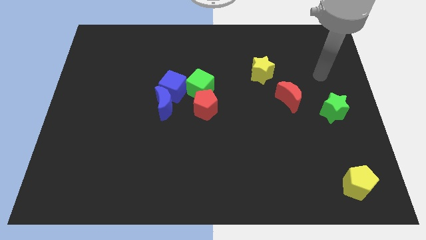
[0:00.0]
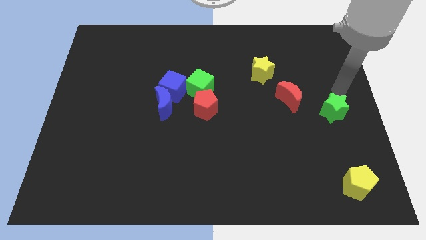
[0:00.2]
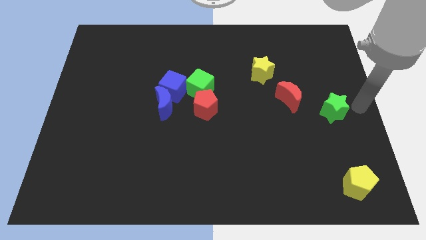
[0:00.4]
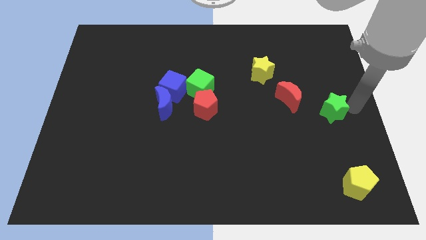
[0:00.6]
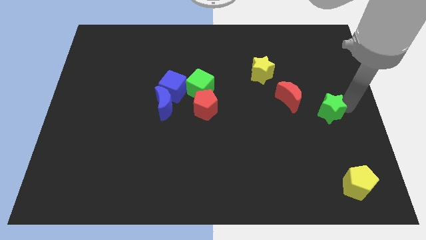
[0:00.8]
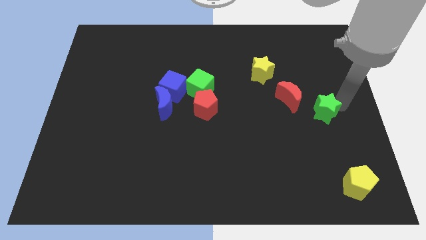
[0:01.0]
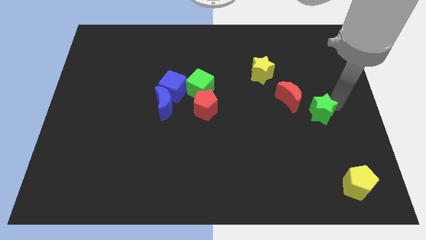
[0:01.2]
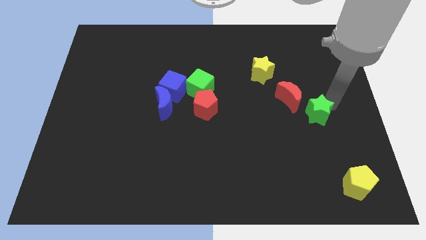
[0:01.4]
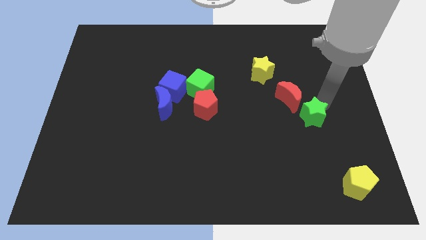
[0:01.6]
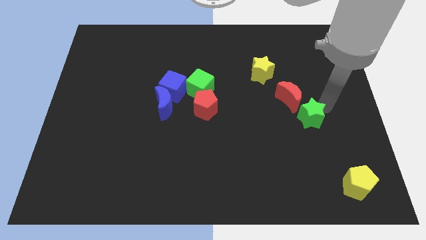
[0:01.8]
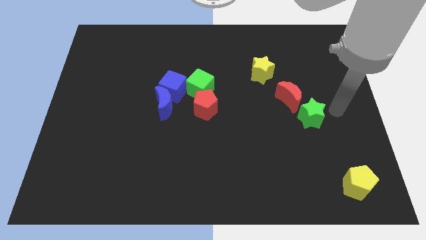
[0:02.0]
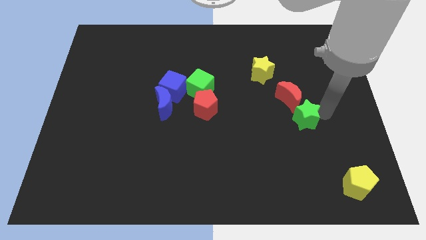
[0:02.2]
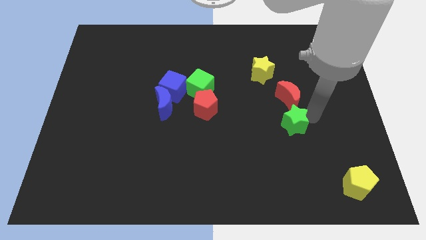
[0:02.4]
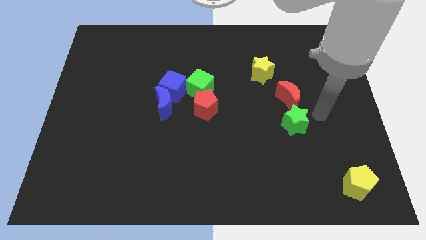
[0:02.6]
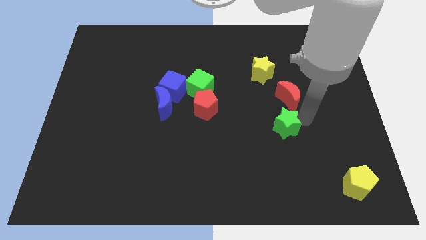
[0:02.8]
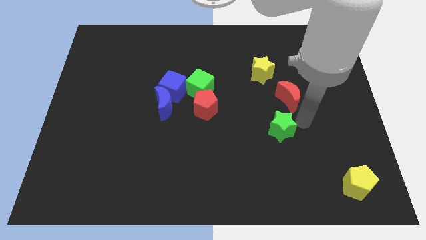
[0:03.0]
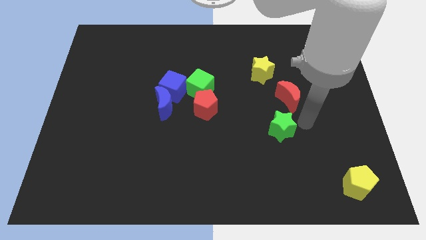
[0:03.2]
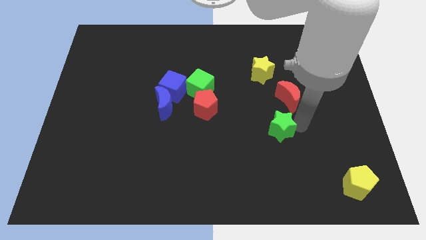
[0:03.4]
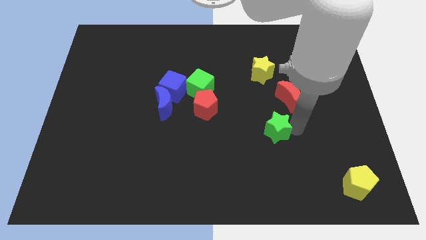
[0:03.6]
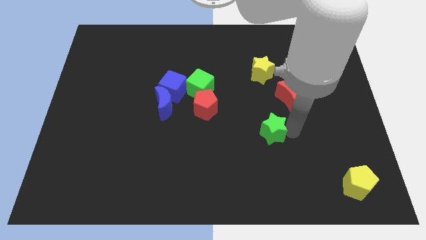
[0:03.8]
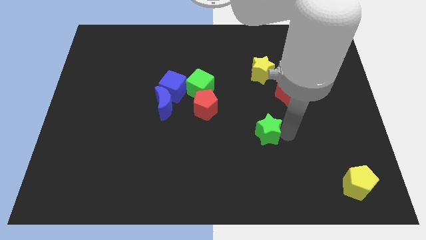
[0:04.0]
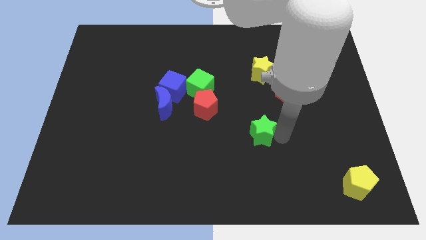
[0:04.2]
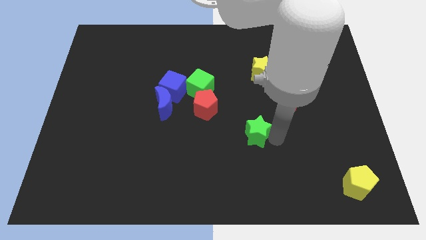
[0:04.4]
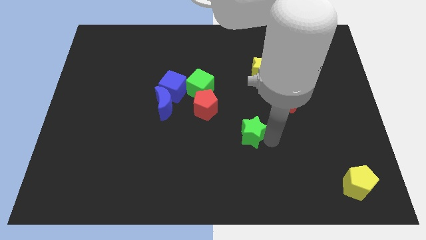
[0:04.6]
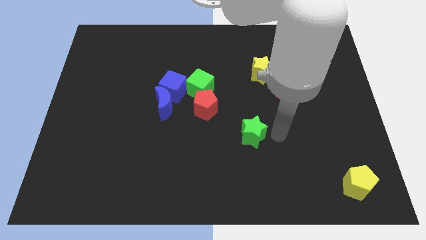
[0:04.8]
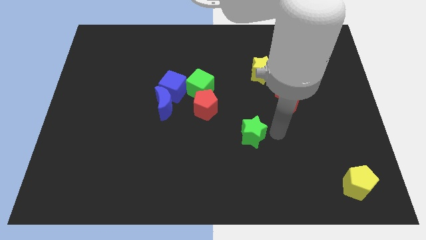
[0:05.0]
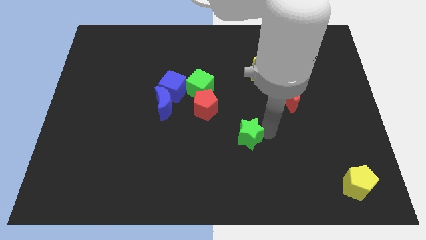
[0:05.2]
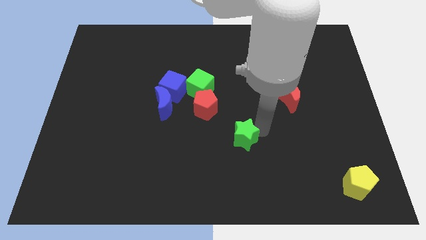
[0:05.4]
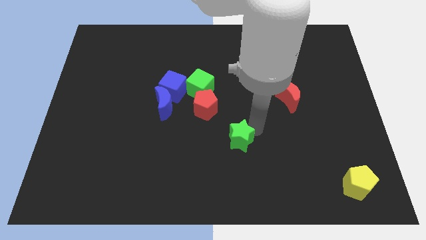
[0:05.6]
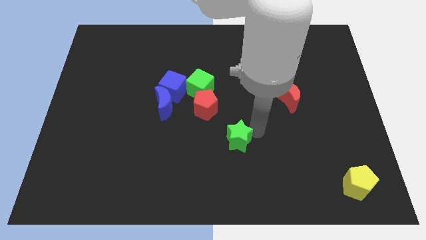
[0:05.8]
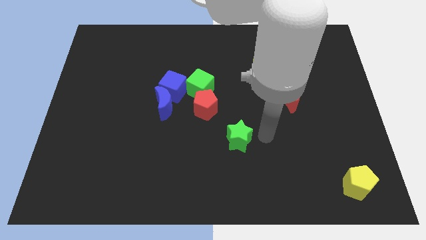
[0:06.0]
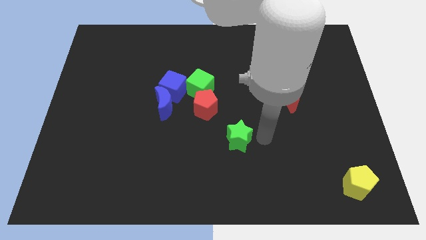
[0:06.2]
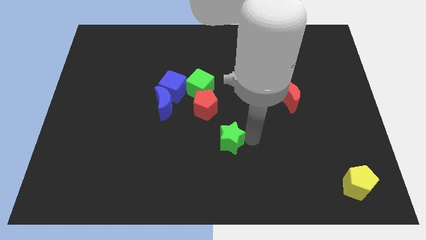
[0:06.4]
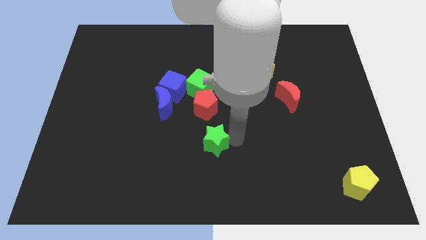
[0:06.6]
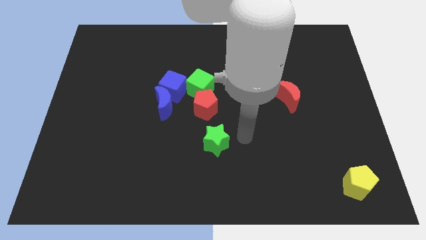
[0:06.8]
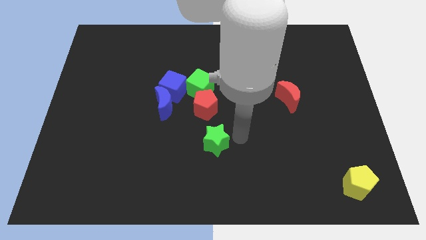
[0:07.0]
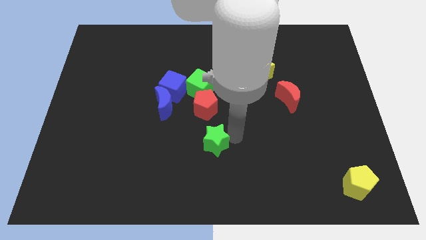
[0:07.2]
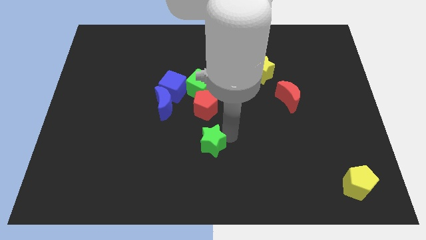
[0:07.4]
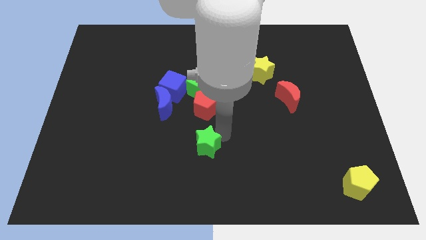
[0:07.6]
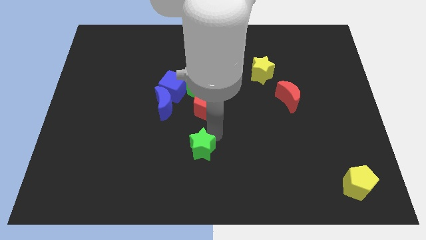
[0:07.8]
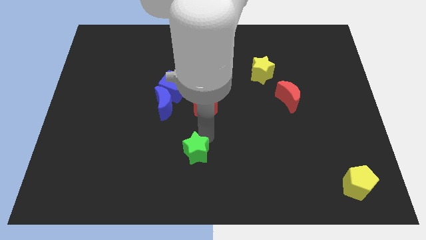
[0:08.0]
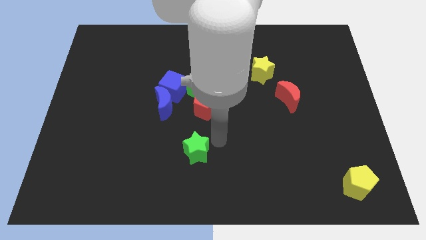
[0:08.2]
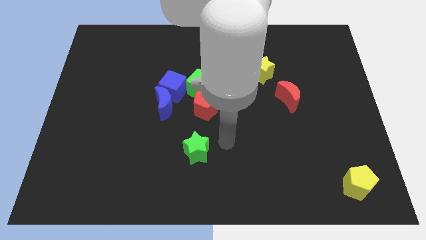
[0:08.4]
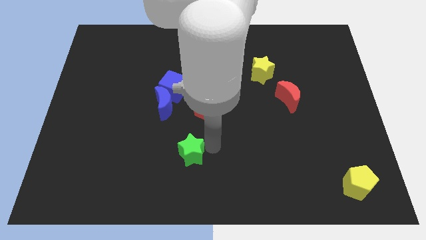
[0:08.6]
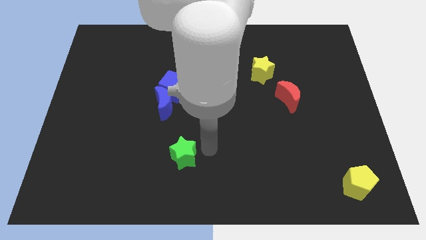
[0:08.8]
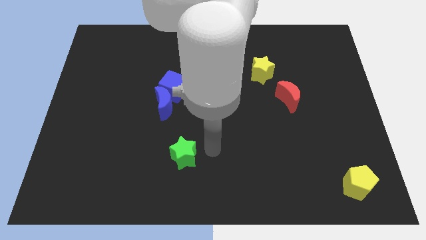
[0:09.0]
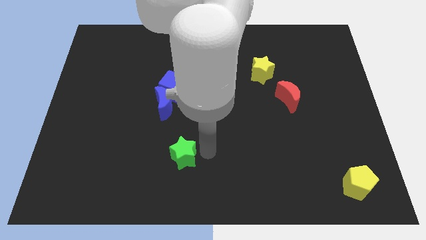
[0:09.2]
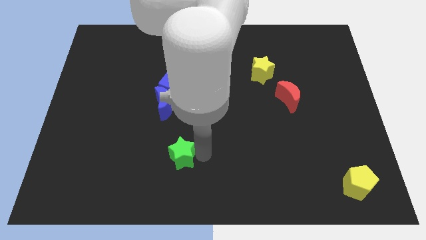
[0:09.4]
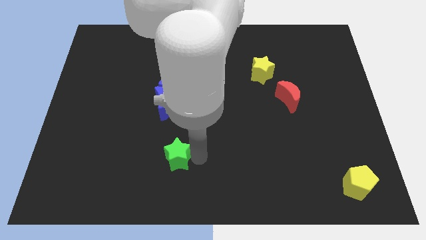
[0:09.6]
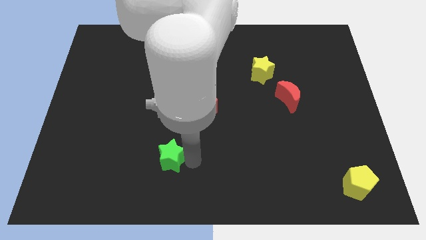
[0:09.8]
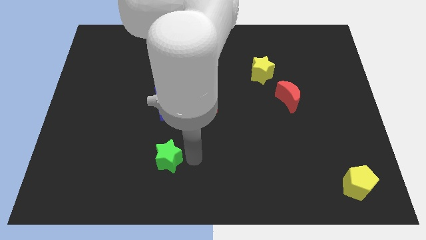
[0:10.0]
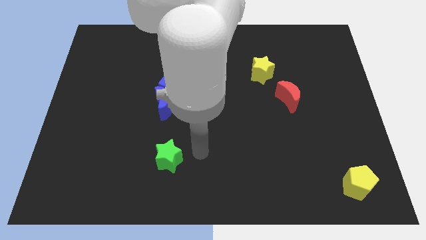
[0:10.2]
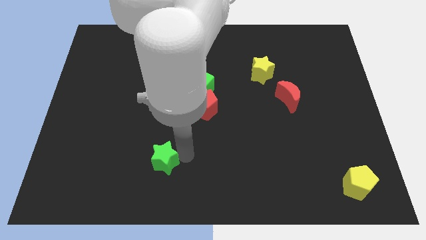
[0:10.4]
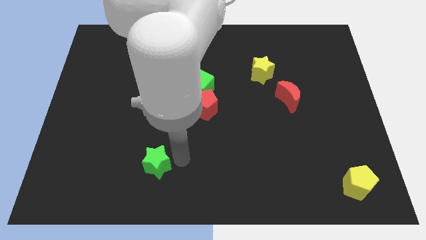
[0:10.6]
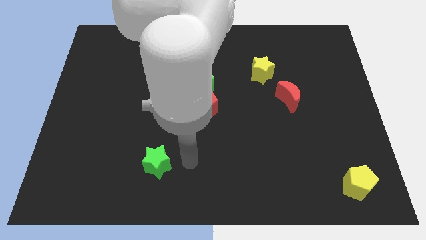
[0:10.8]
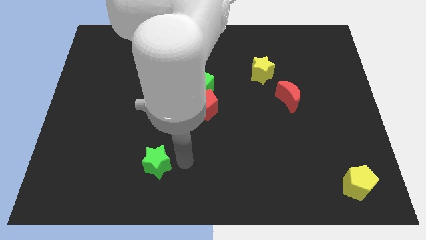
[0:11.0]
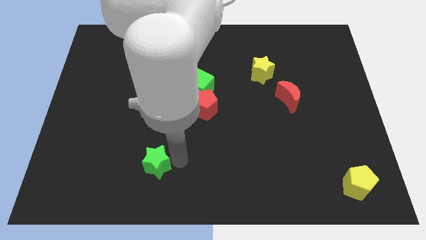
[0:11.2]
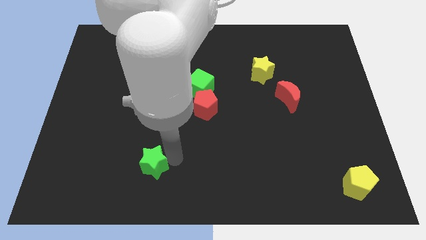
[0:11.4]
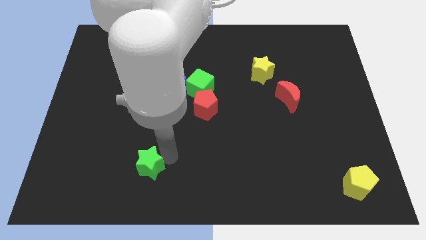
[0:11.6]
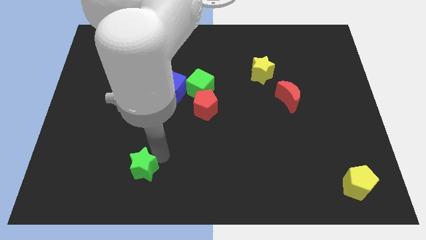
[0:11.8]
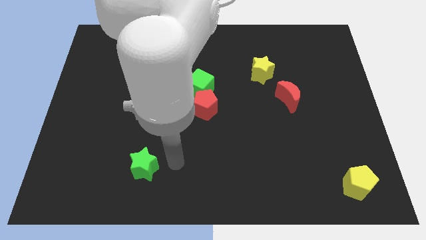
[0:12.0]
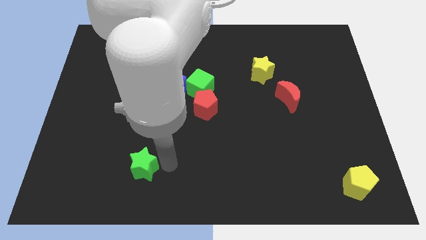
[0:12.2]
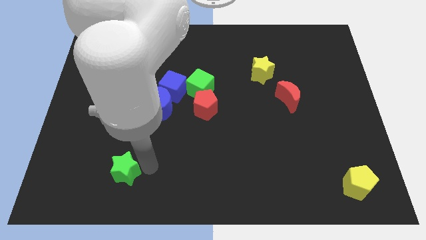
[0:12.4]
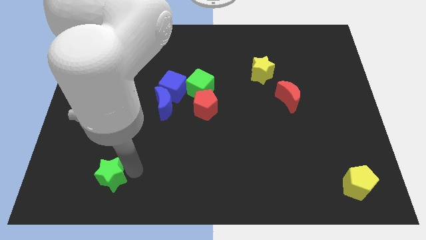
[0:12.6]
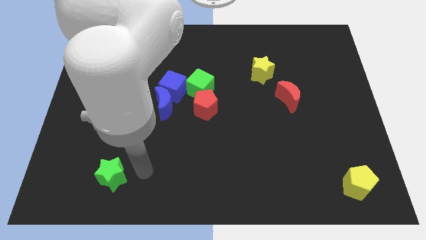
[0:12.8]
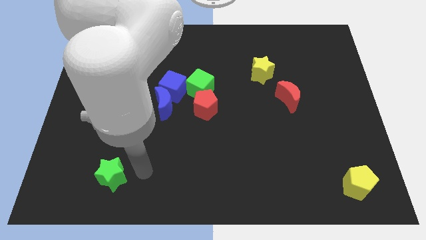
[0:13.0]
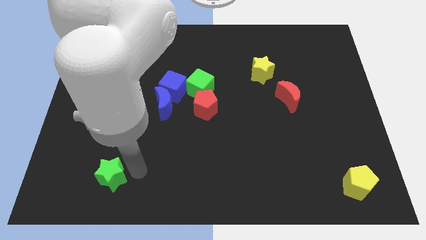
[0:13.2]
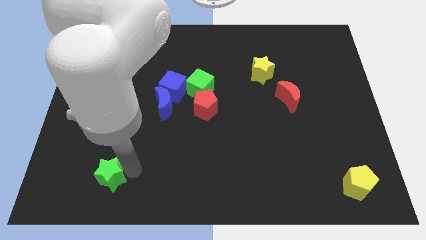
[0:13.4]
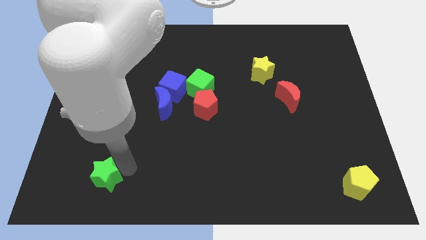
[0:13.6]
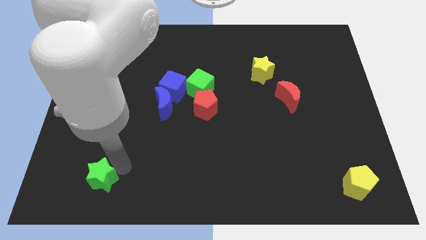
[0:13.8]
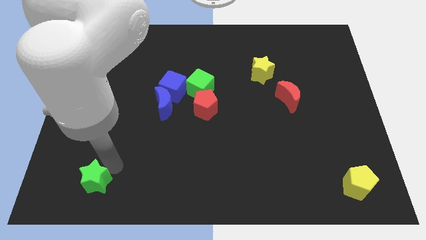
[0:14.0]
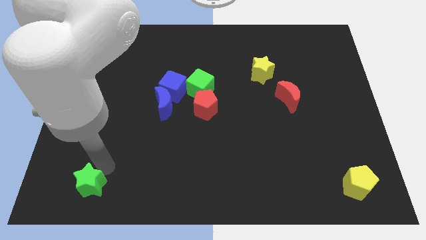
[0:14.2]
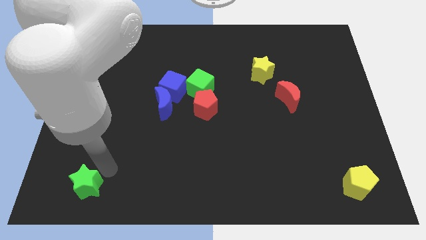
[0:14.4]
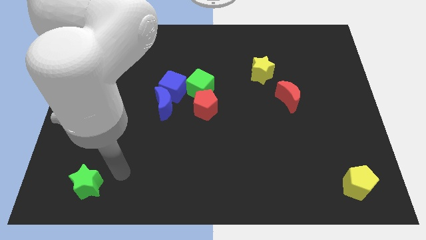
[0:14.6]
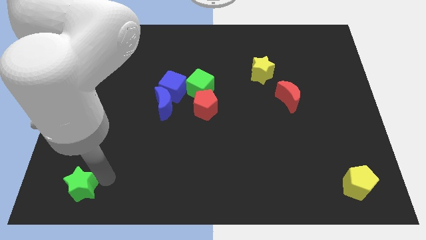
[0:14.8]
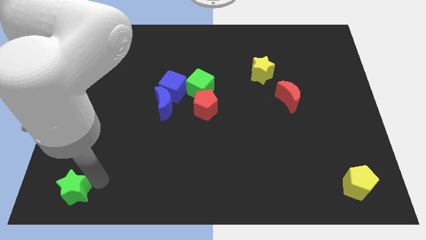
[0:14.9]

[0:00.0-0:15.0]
push the green star to the lower left corner
